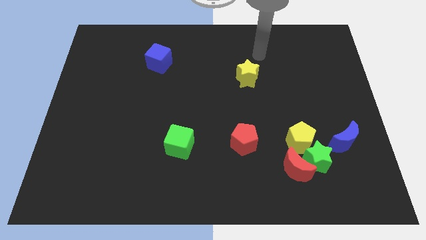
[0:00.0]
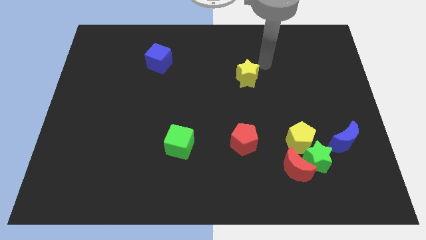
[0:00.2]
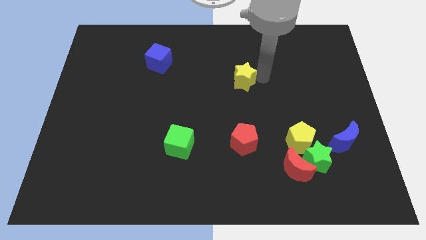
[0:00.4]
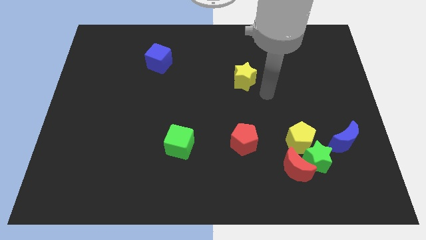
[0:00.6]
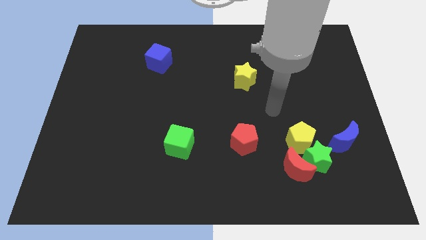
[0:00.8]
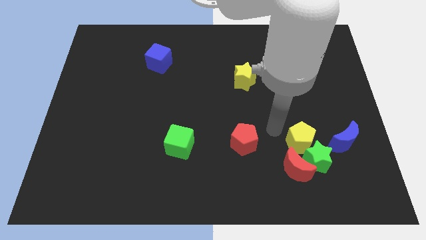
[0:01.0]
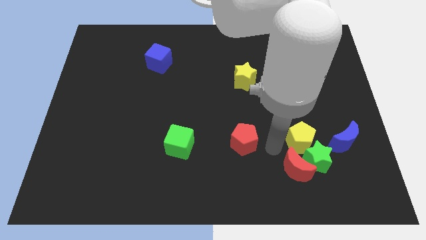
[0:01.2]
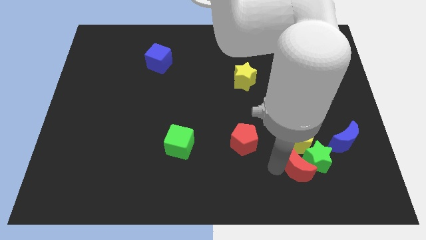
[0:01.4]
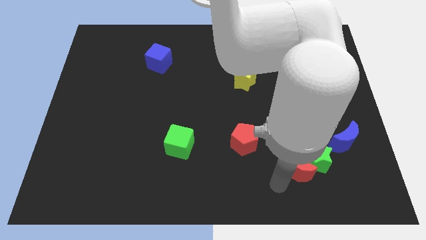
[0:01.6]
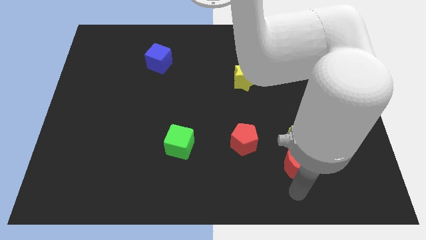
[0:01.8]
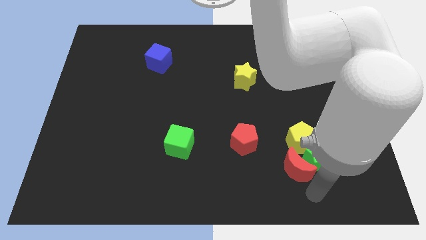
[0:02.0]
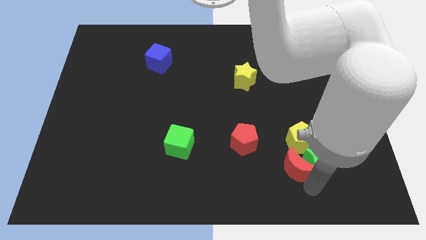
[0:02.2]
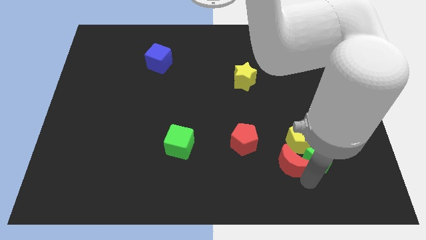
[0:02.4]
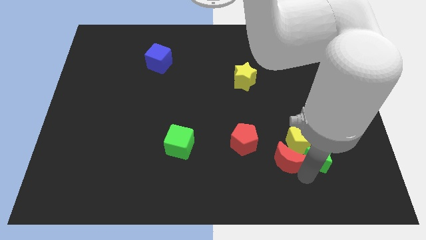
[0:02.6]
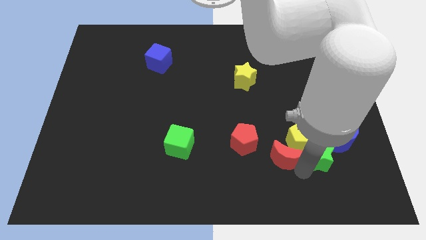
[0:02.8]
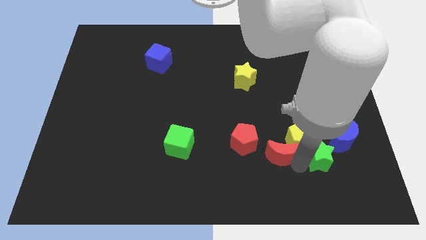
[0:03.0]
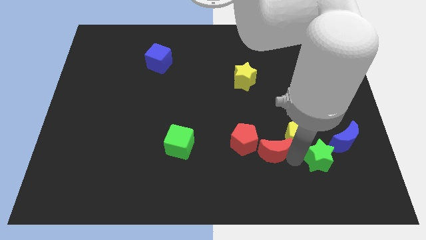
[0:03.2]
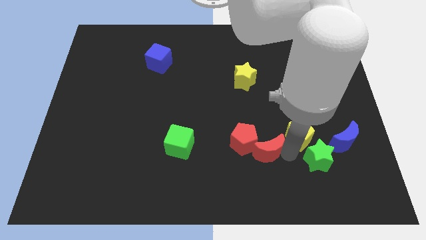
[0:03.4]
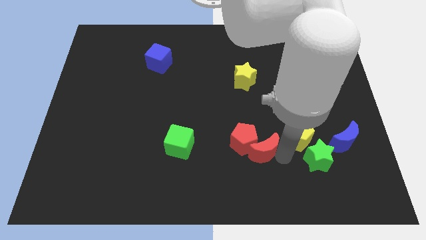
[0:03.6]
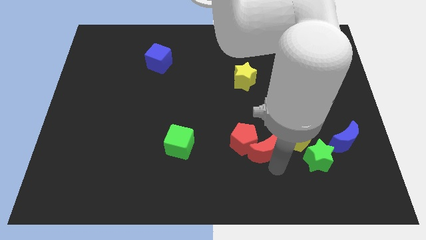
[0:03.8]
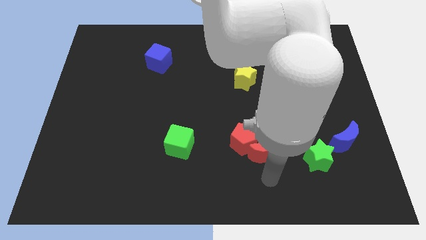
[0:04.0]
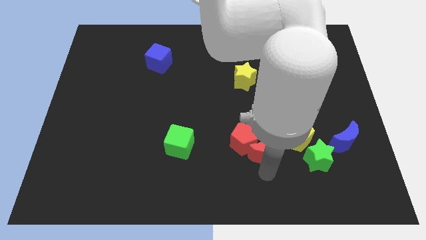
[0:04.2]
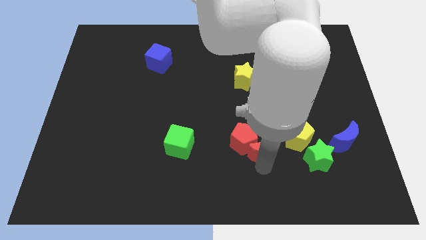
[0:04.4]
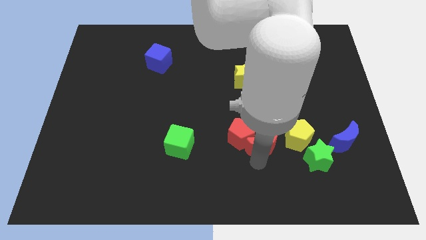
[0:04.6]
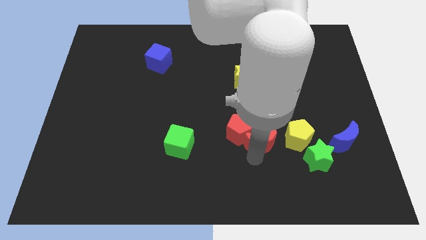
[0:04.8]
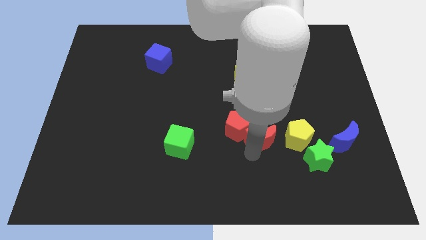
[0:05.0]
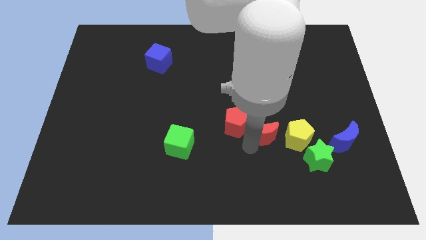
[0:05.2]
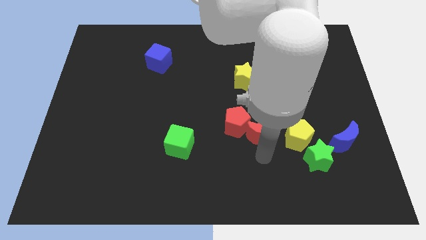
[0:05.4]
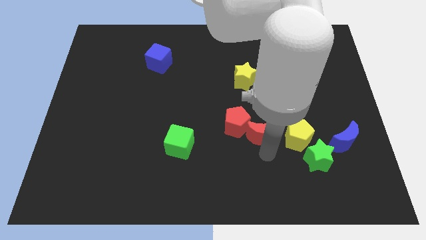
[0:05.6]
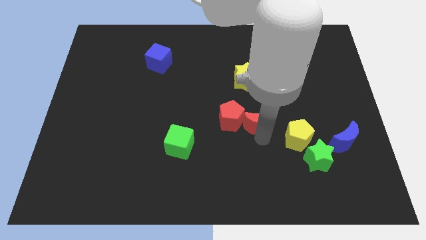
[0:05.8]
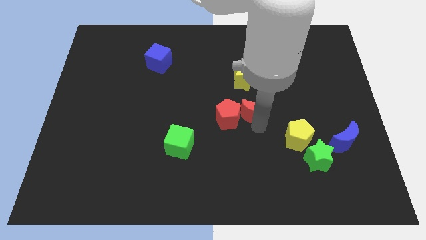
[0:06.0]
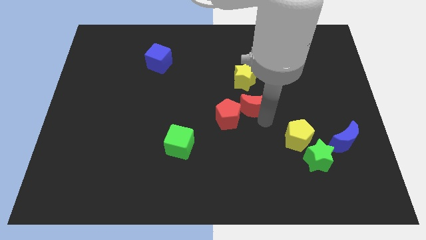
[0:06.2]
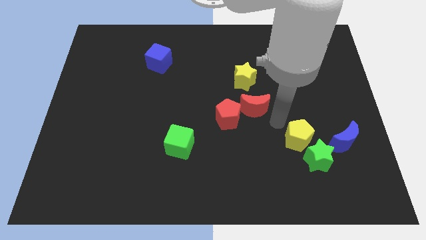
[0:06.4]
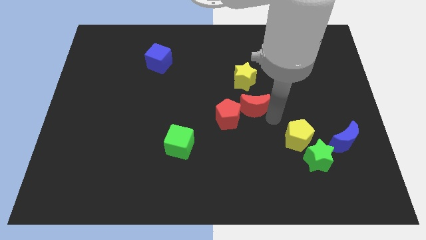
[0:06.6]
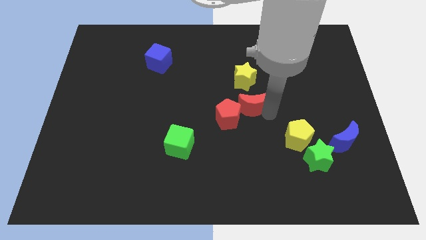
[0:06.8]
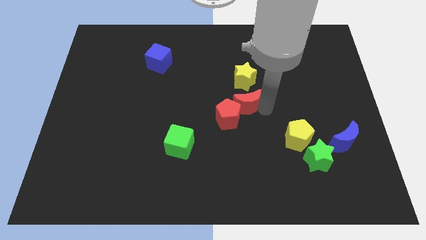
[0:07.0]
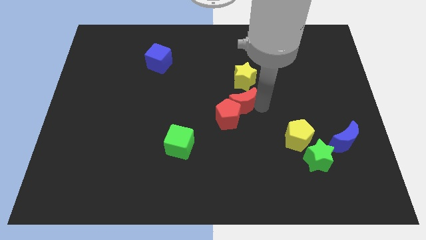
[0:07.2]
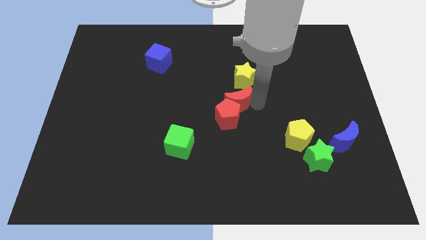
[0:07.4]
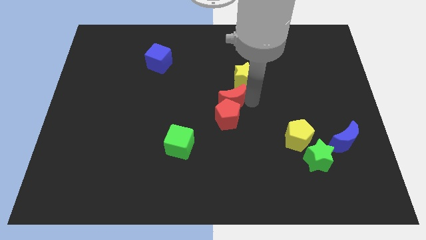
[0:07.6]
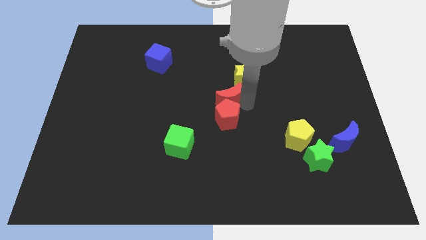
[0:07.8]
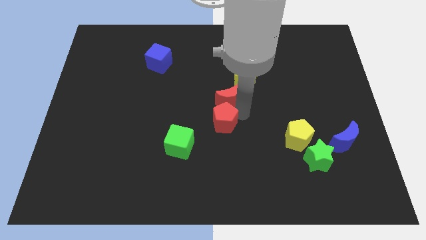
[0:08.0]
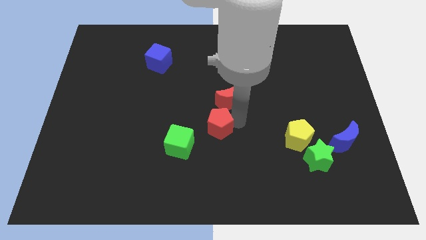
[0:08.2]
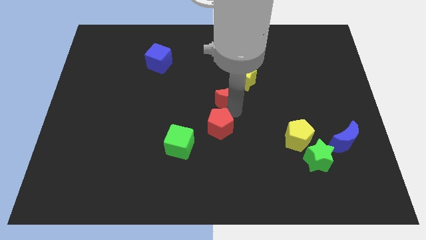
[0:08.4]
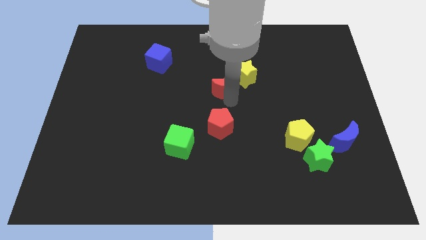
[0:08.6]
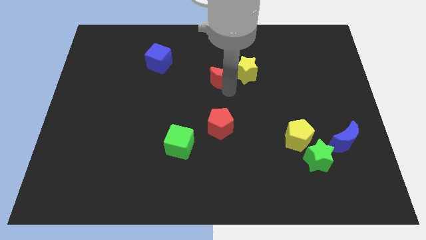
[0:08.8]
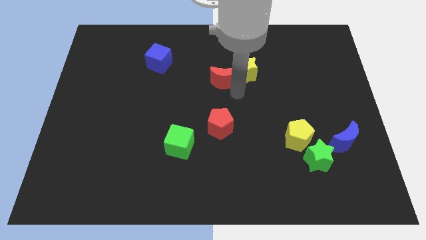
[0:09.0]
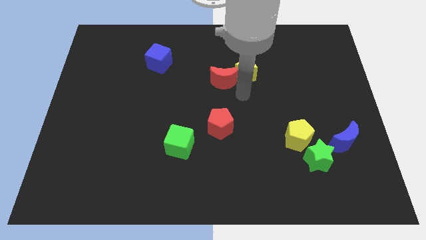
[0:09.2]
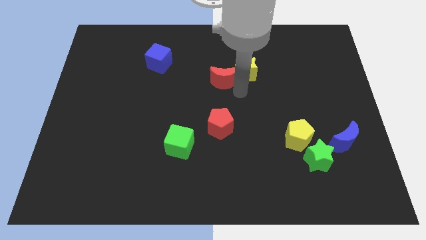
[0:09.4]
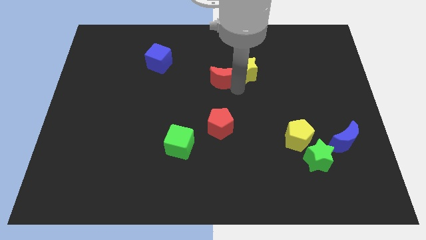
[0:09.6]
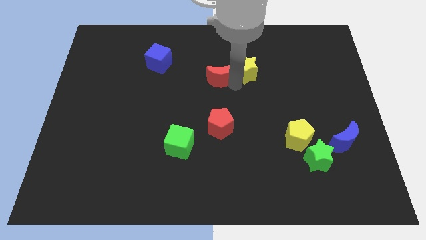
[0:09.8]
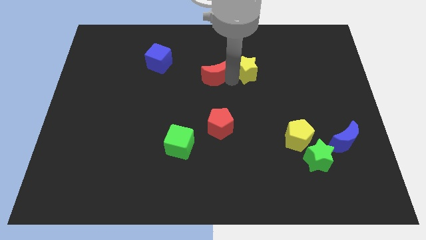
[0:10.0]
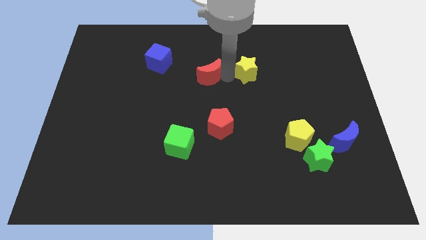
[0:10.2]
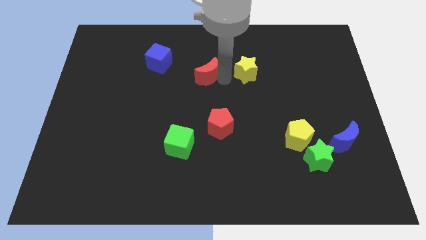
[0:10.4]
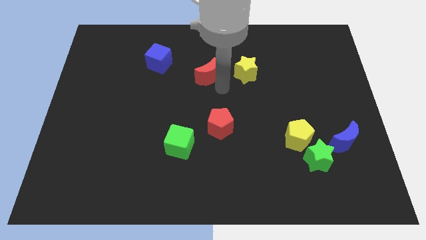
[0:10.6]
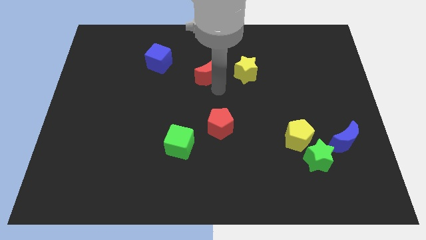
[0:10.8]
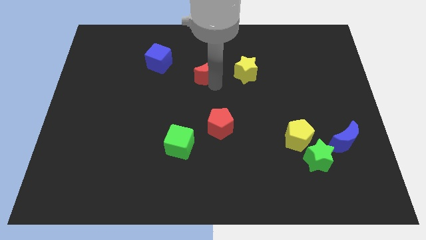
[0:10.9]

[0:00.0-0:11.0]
move the red moon just right of the blue cube

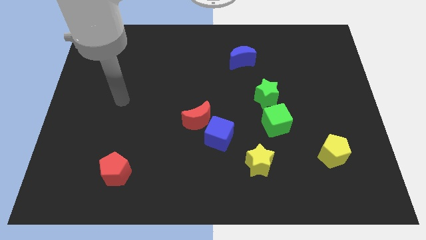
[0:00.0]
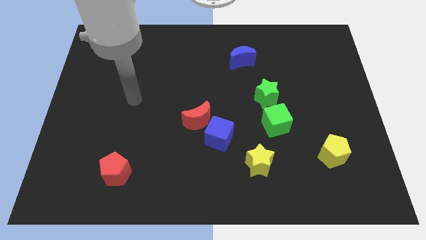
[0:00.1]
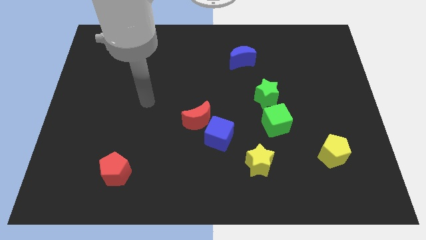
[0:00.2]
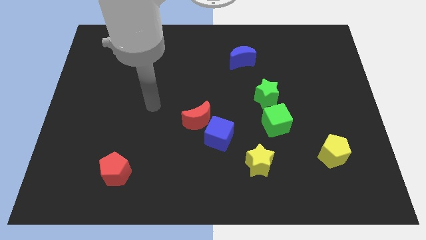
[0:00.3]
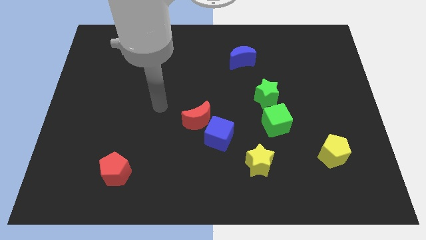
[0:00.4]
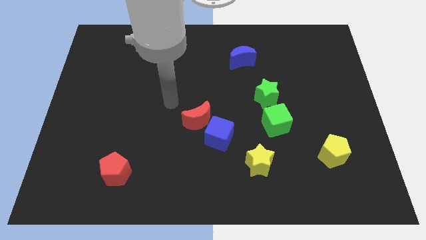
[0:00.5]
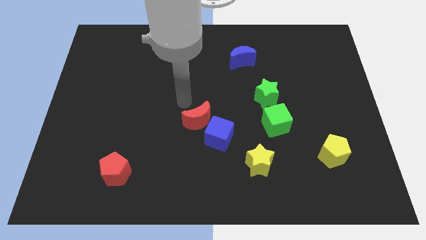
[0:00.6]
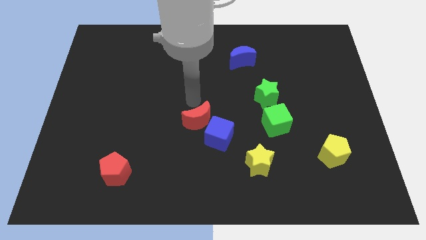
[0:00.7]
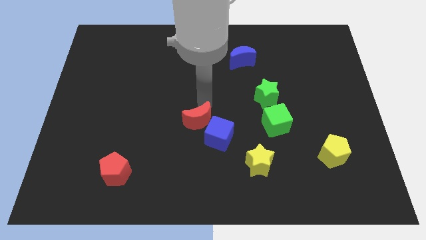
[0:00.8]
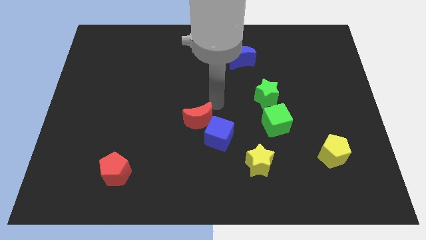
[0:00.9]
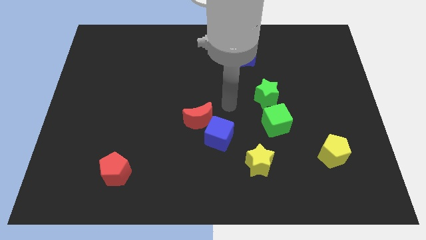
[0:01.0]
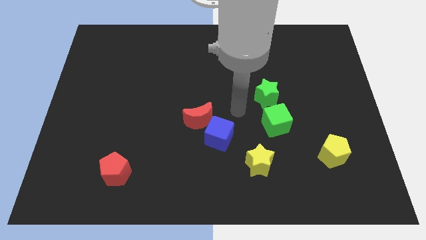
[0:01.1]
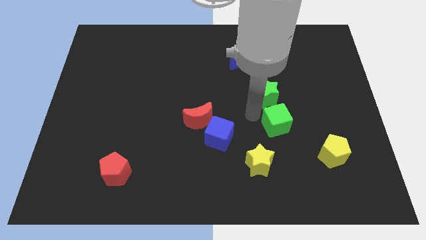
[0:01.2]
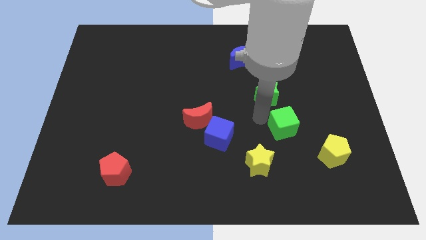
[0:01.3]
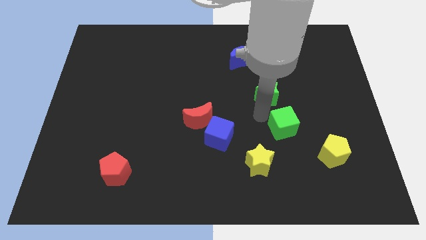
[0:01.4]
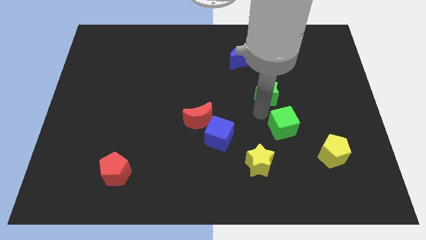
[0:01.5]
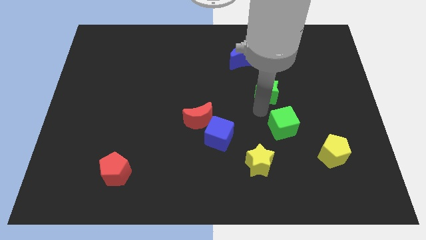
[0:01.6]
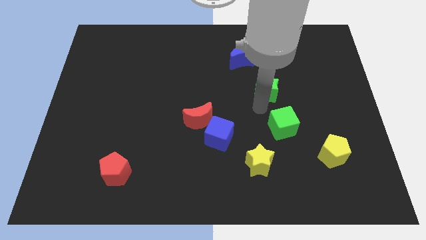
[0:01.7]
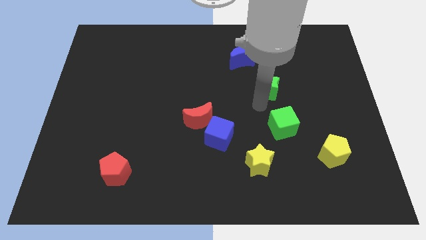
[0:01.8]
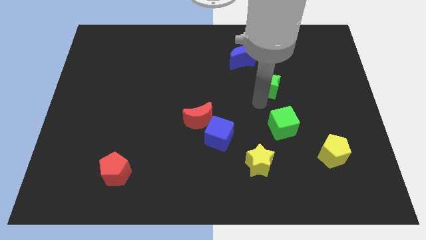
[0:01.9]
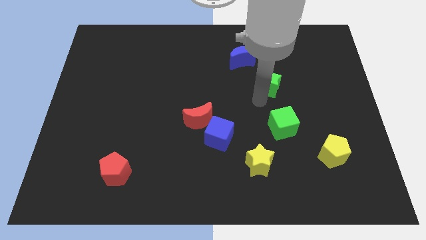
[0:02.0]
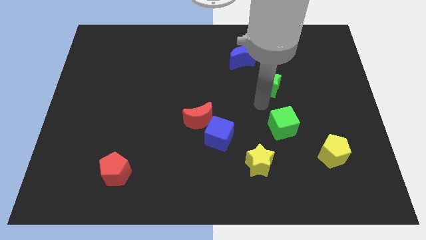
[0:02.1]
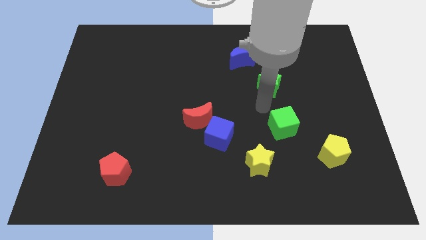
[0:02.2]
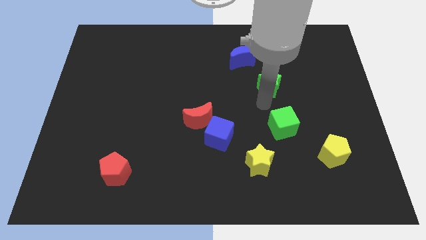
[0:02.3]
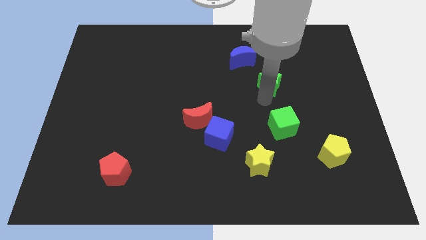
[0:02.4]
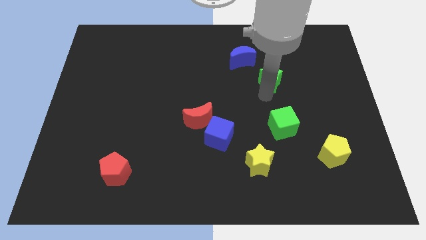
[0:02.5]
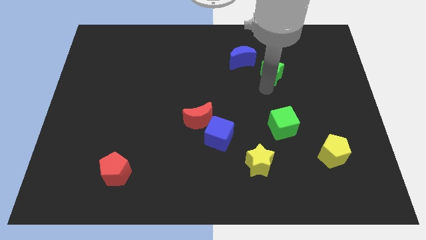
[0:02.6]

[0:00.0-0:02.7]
slide the green star just right of the blue moon
